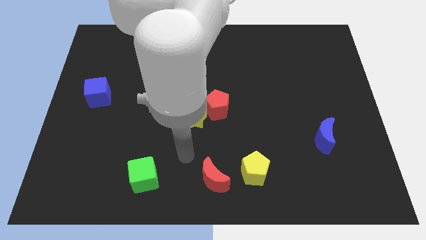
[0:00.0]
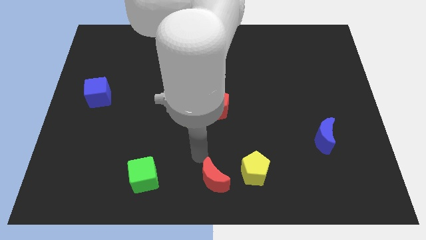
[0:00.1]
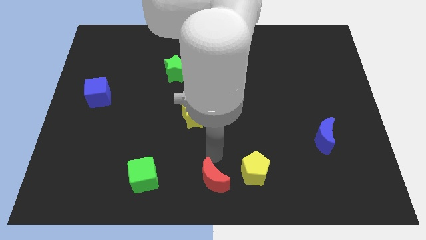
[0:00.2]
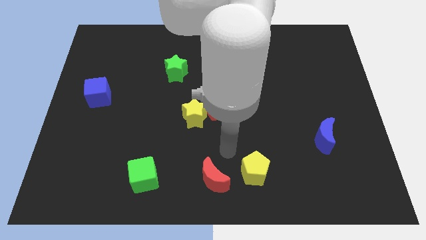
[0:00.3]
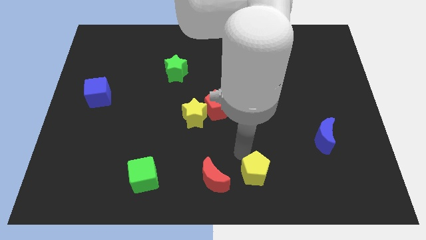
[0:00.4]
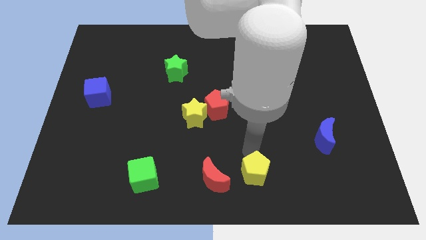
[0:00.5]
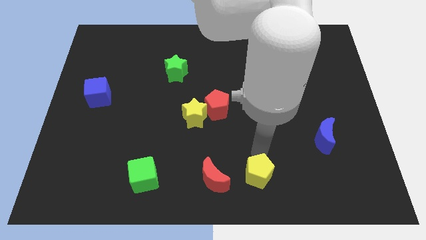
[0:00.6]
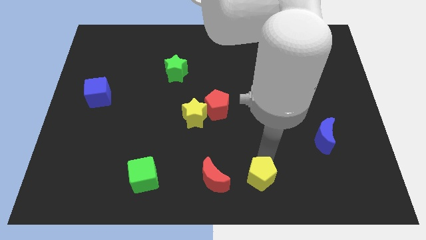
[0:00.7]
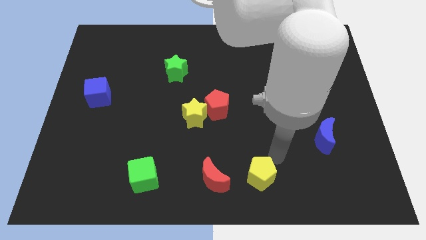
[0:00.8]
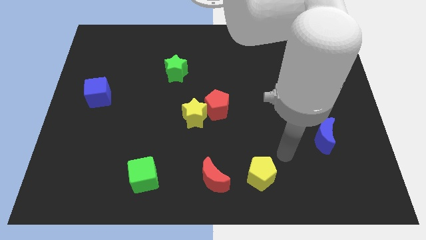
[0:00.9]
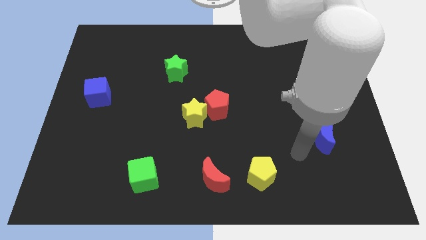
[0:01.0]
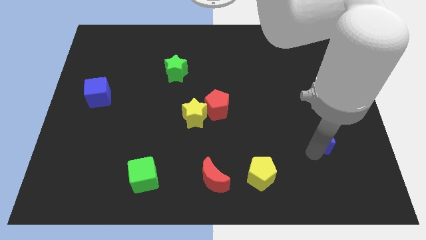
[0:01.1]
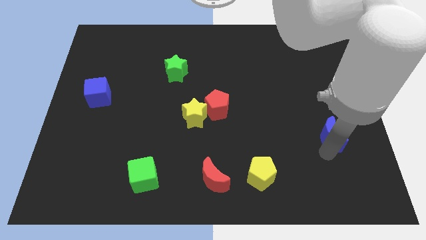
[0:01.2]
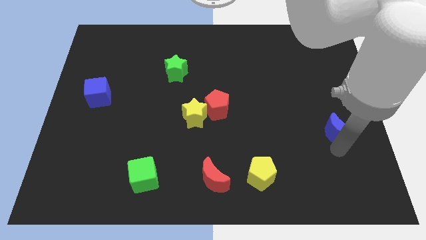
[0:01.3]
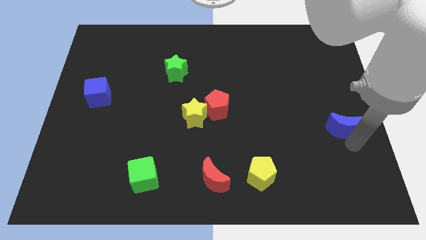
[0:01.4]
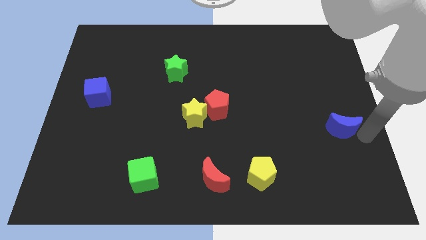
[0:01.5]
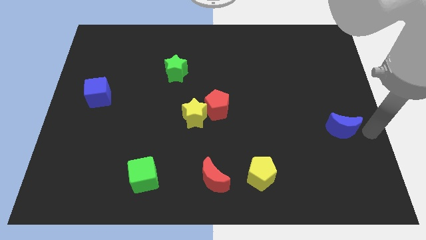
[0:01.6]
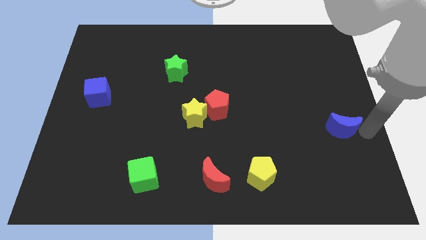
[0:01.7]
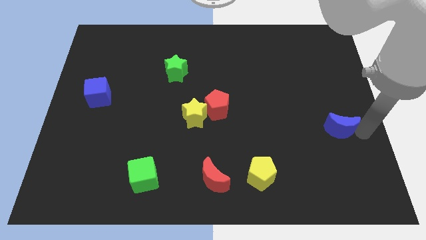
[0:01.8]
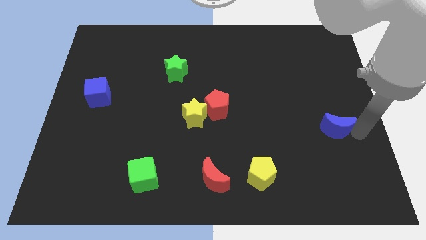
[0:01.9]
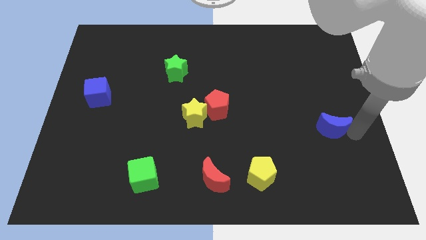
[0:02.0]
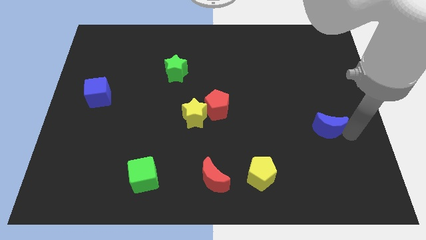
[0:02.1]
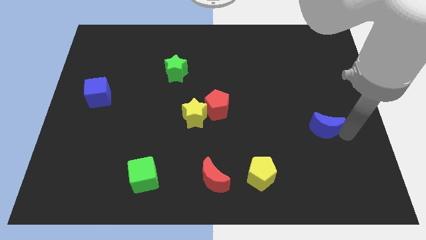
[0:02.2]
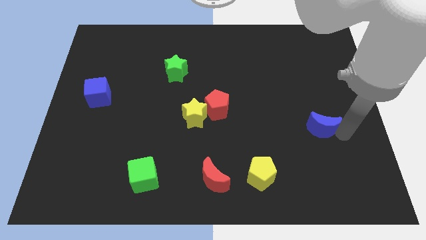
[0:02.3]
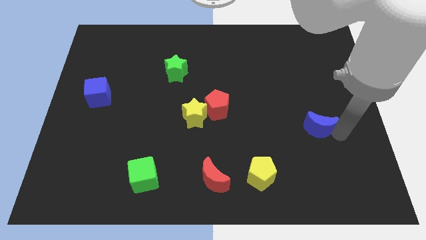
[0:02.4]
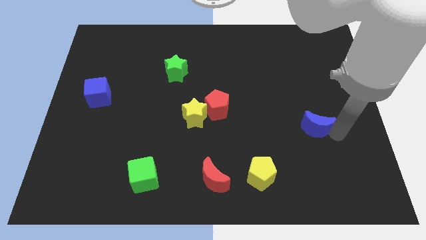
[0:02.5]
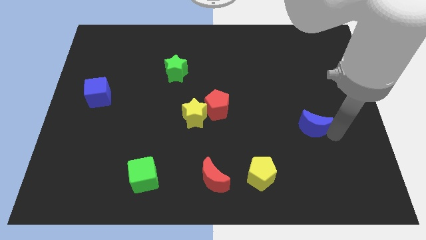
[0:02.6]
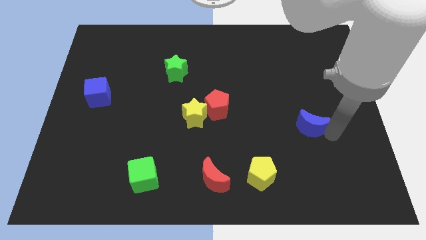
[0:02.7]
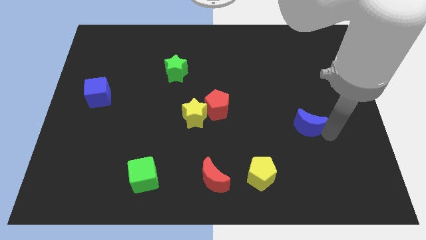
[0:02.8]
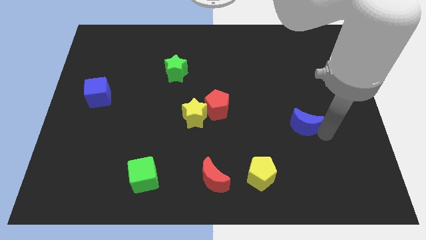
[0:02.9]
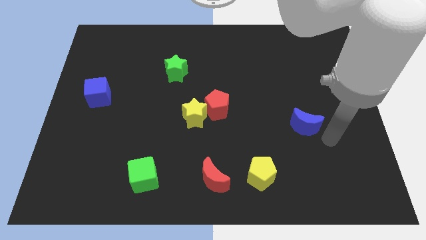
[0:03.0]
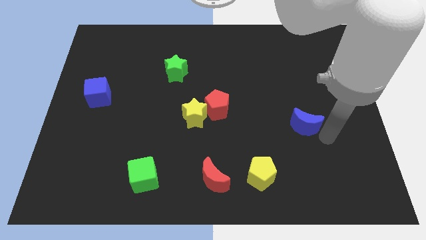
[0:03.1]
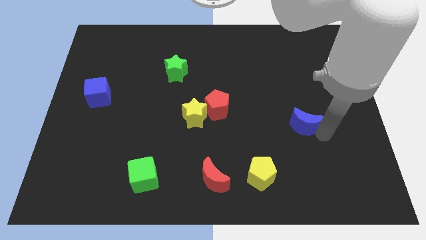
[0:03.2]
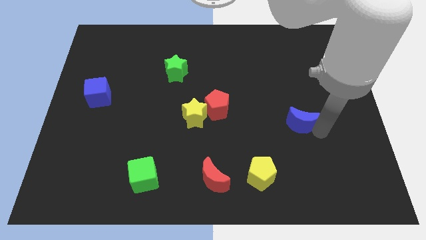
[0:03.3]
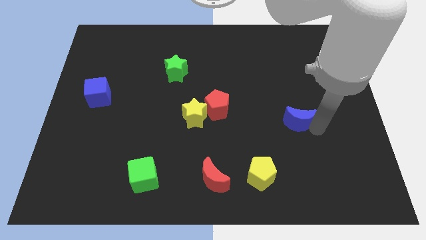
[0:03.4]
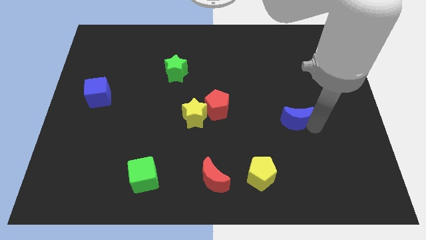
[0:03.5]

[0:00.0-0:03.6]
slide the blue moon upwards and then to the left a bit

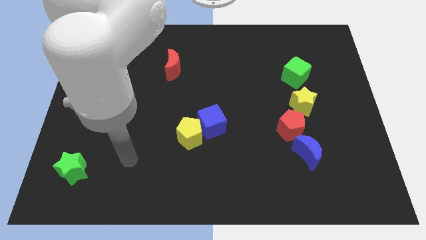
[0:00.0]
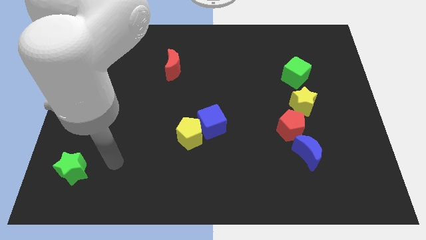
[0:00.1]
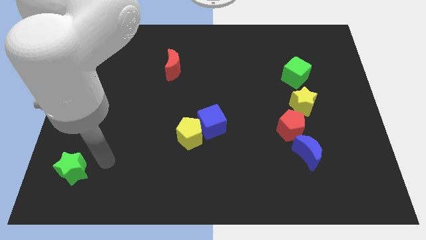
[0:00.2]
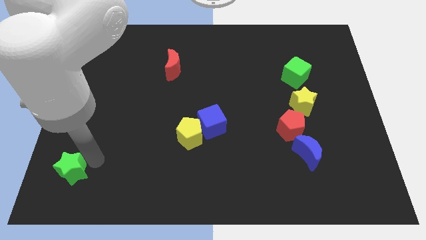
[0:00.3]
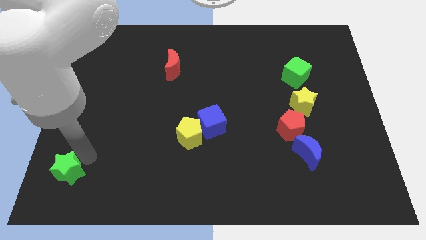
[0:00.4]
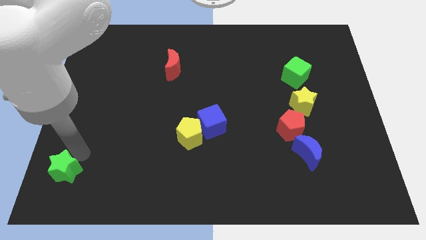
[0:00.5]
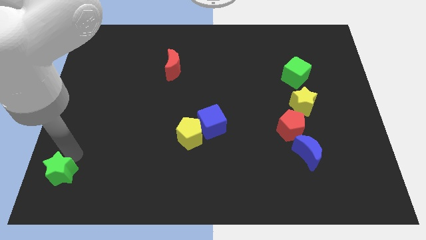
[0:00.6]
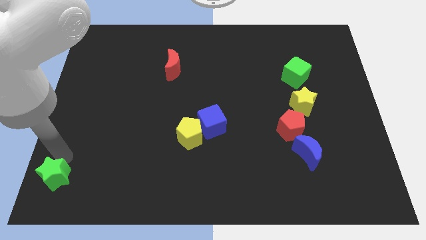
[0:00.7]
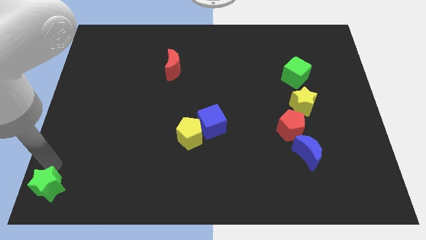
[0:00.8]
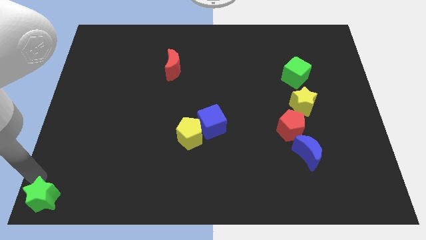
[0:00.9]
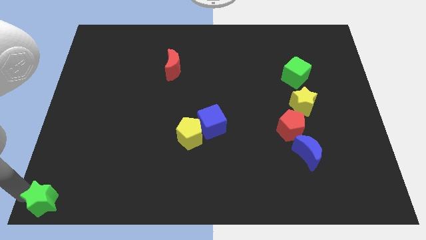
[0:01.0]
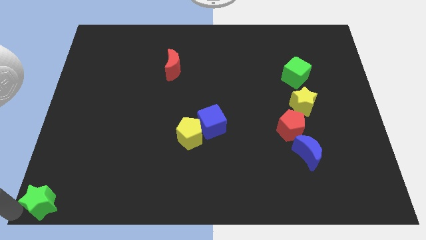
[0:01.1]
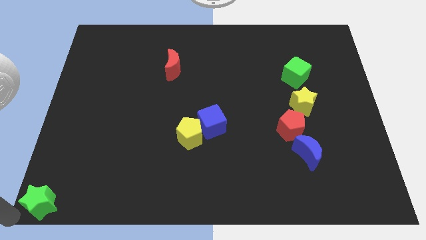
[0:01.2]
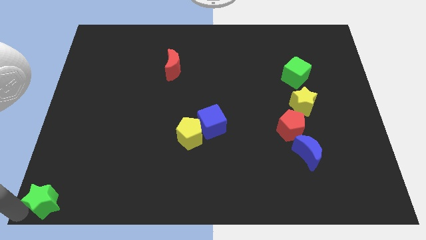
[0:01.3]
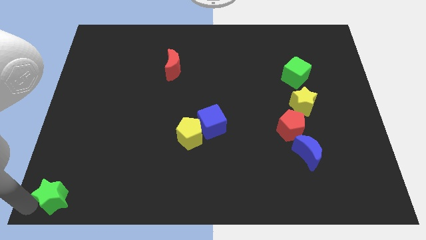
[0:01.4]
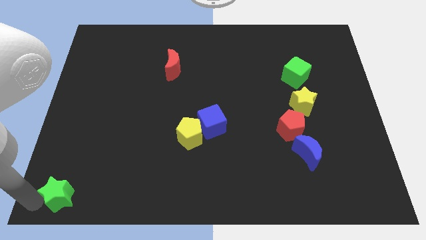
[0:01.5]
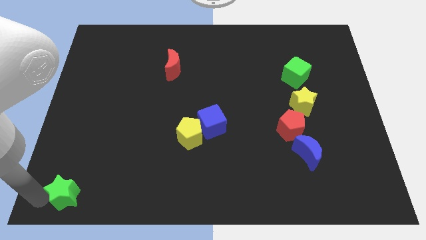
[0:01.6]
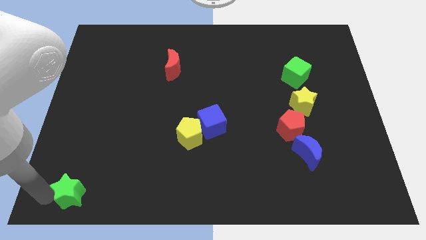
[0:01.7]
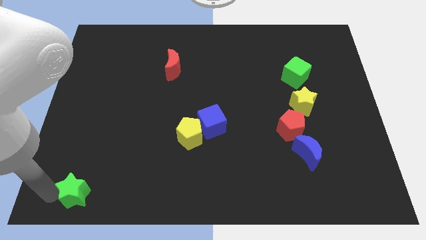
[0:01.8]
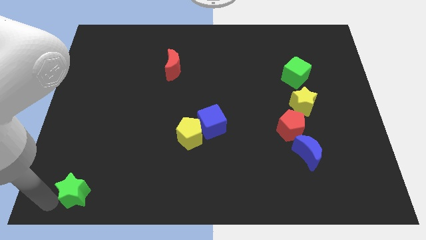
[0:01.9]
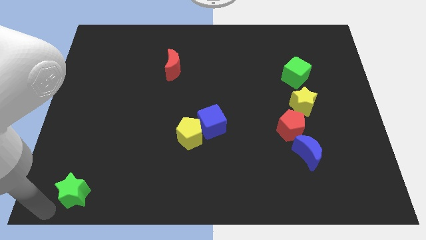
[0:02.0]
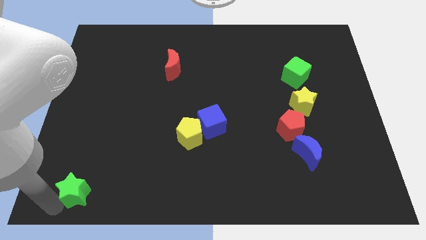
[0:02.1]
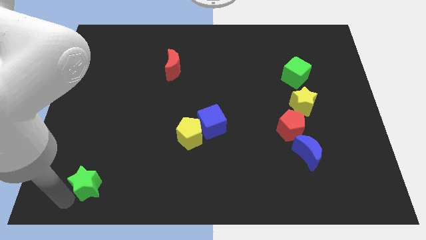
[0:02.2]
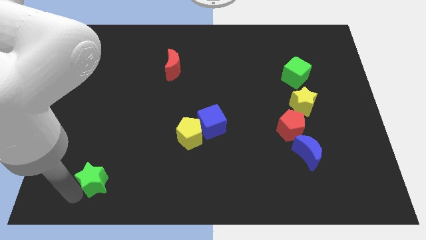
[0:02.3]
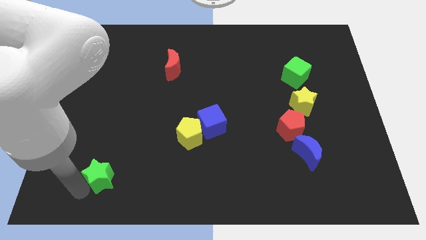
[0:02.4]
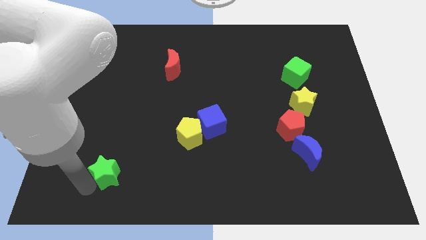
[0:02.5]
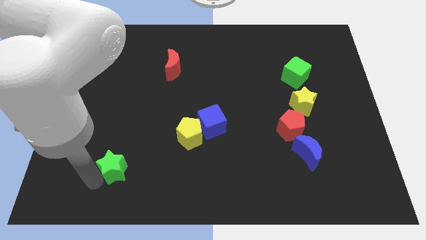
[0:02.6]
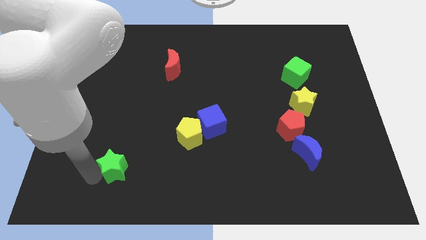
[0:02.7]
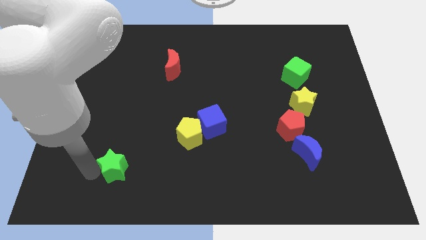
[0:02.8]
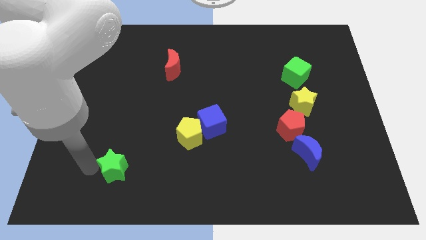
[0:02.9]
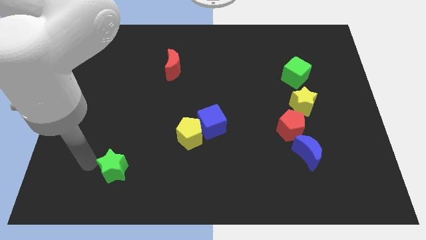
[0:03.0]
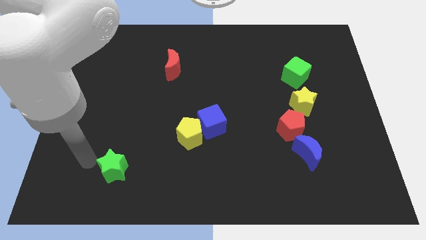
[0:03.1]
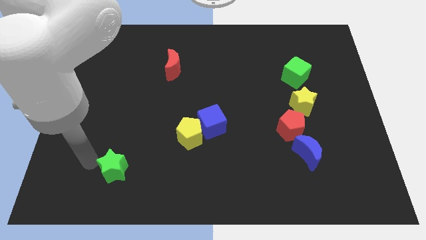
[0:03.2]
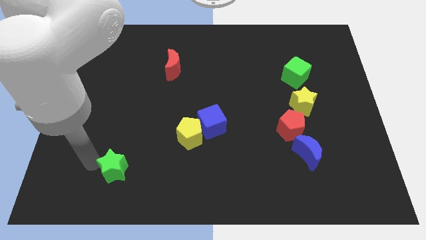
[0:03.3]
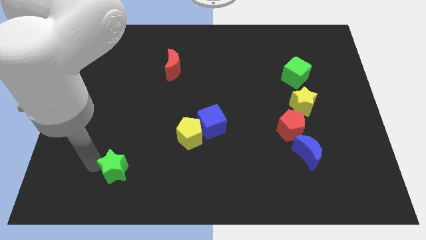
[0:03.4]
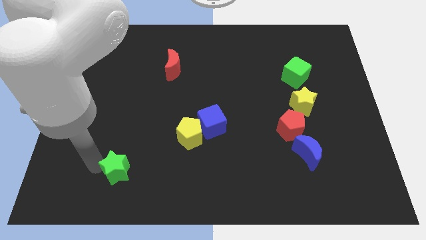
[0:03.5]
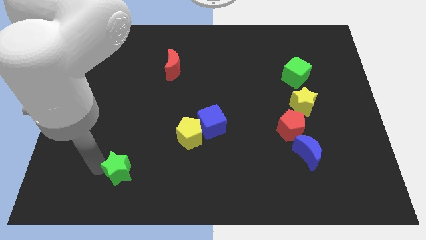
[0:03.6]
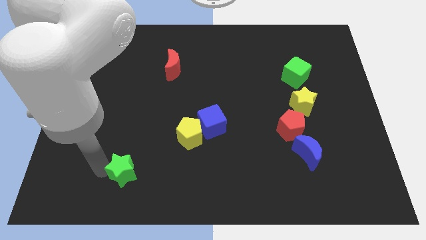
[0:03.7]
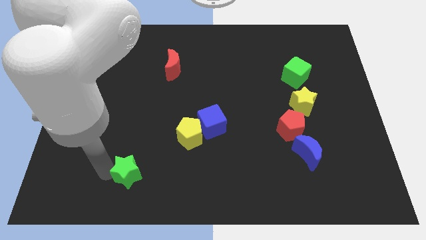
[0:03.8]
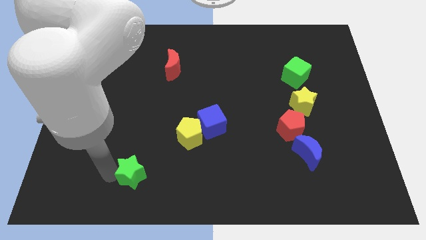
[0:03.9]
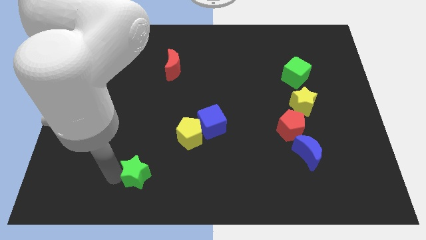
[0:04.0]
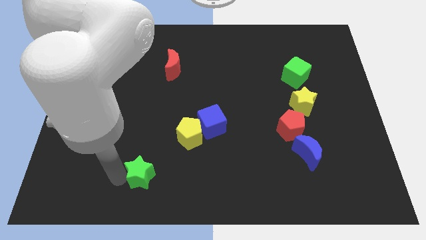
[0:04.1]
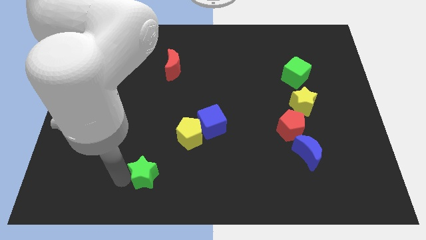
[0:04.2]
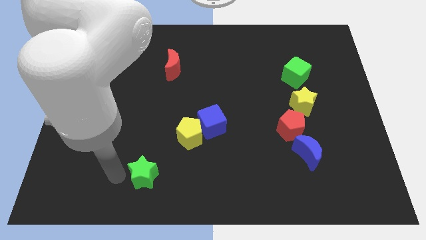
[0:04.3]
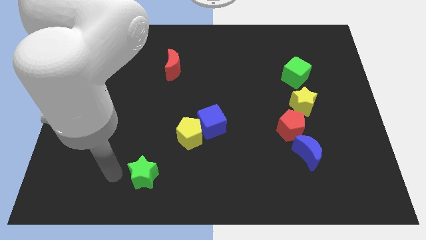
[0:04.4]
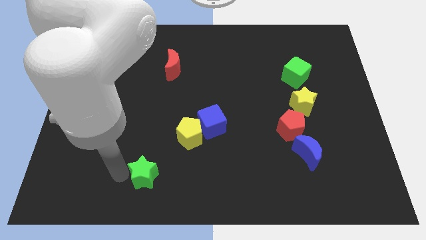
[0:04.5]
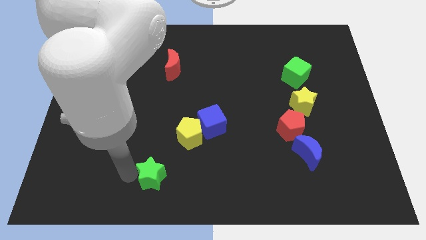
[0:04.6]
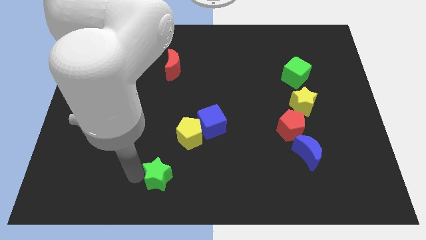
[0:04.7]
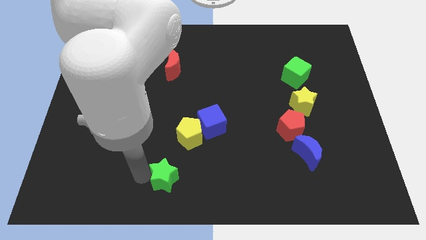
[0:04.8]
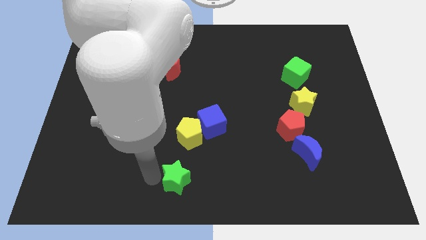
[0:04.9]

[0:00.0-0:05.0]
push the green star right
